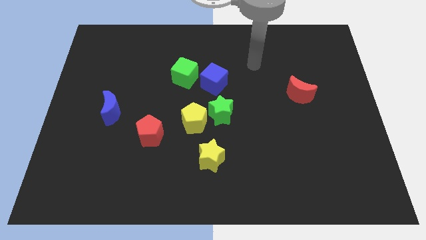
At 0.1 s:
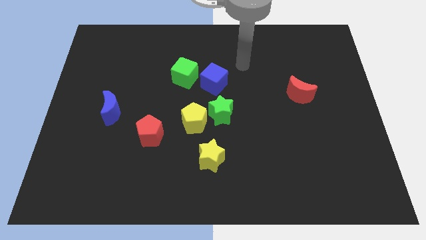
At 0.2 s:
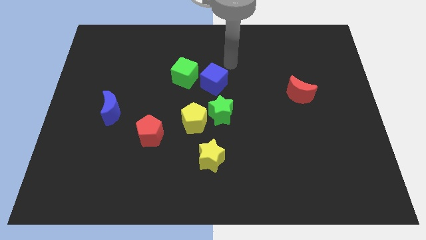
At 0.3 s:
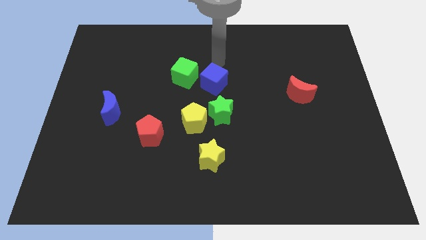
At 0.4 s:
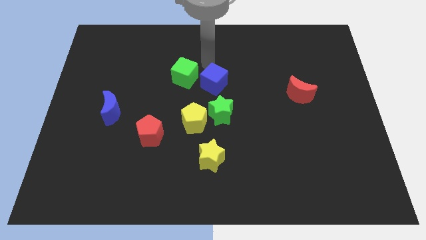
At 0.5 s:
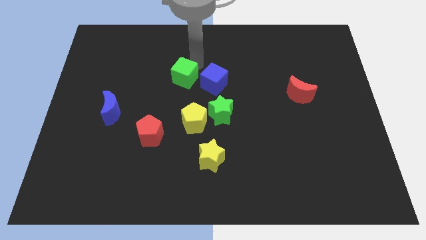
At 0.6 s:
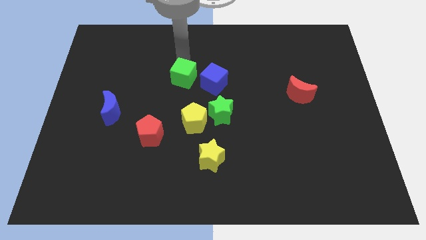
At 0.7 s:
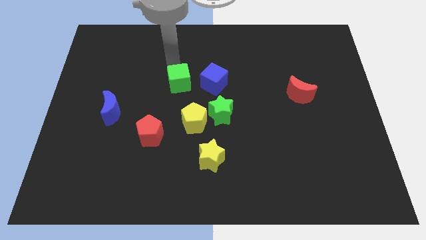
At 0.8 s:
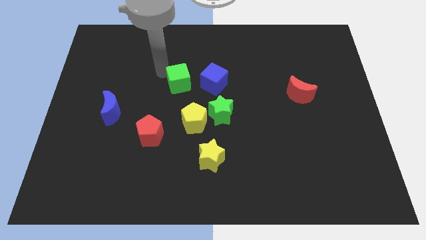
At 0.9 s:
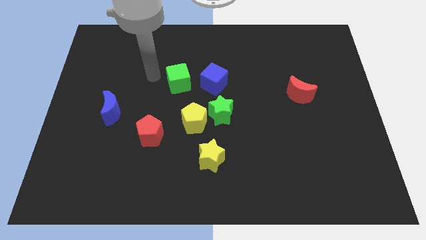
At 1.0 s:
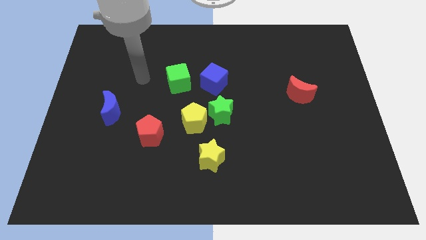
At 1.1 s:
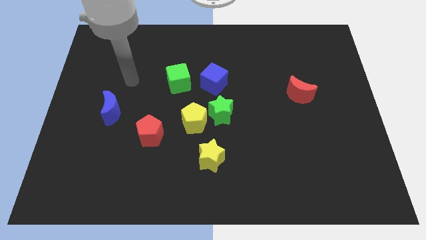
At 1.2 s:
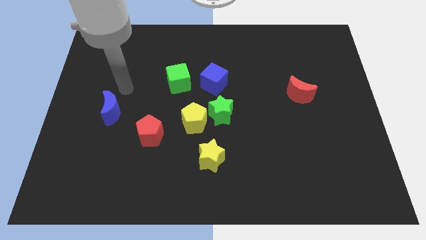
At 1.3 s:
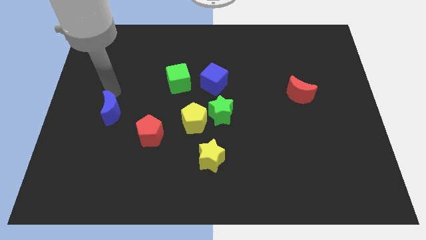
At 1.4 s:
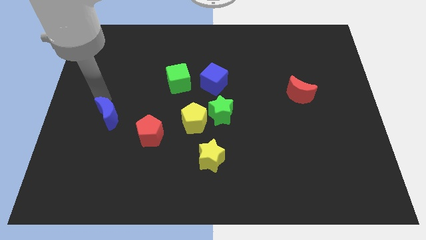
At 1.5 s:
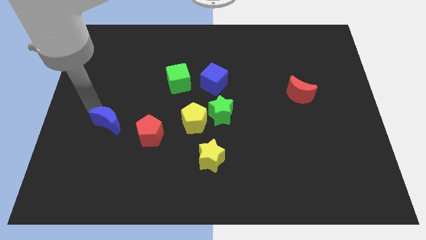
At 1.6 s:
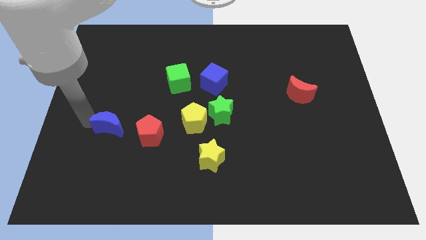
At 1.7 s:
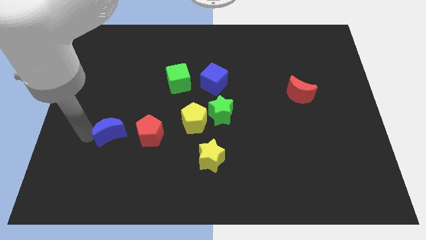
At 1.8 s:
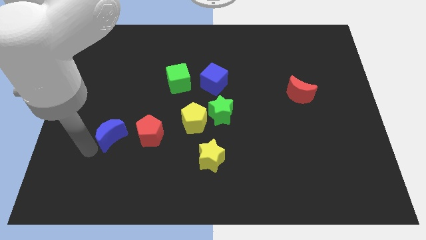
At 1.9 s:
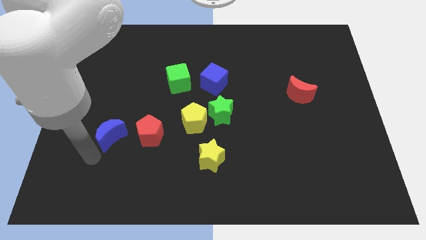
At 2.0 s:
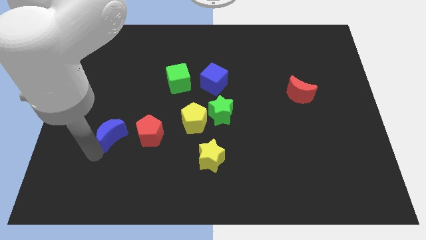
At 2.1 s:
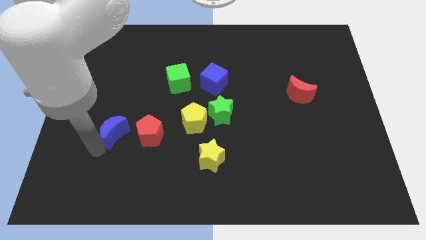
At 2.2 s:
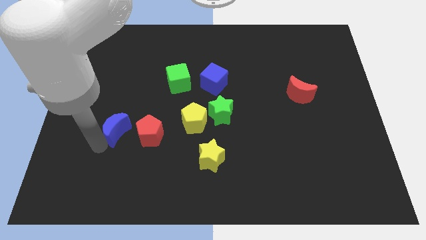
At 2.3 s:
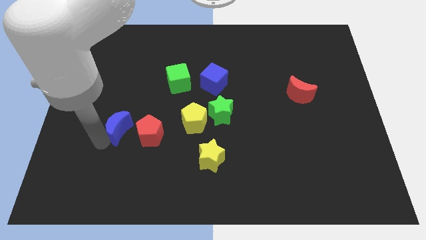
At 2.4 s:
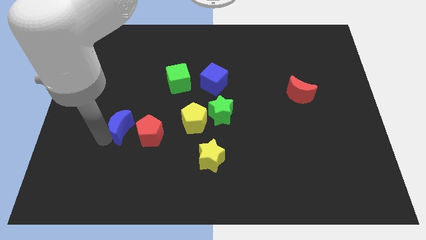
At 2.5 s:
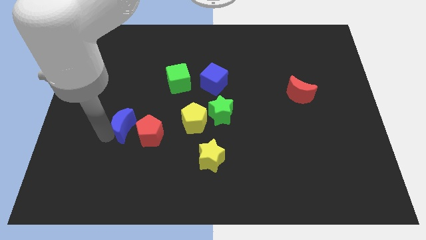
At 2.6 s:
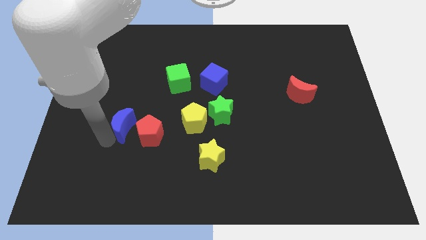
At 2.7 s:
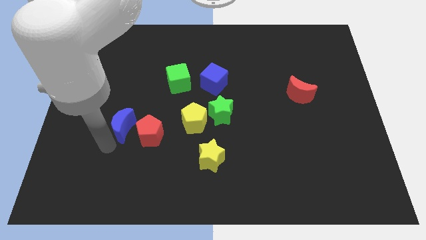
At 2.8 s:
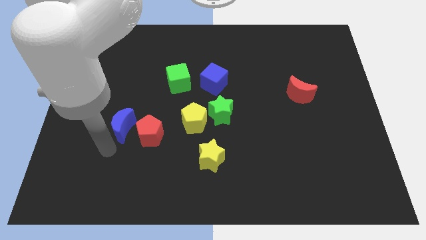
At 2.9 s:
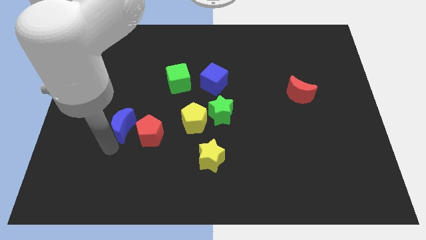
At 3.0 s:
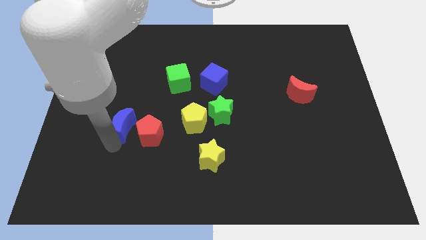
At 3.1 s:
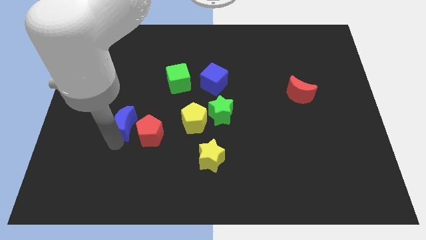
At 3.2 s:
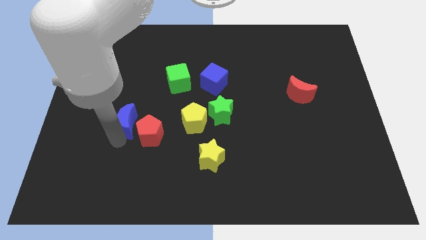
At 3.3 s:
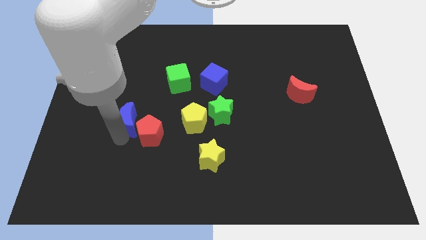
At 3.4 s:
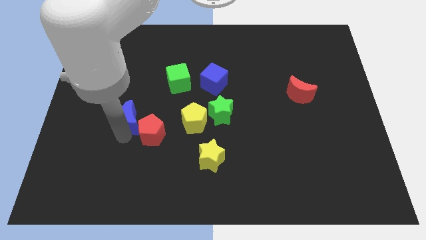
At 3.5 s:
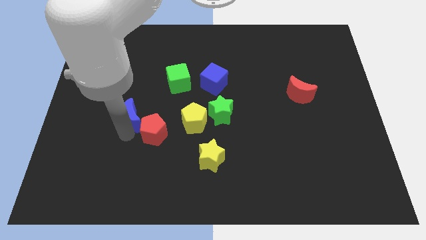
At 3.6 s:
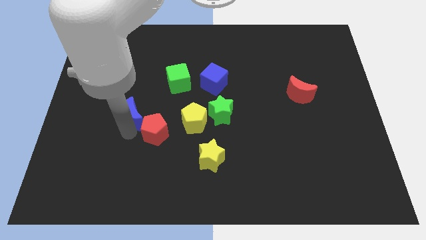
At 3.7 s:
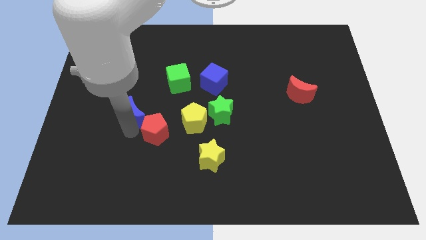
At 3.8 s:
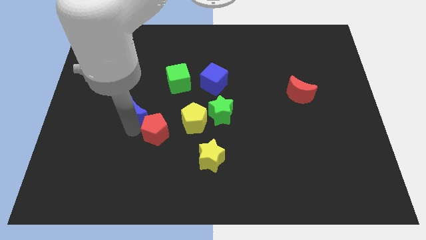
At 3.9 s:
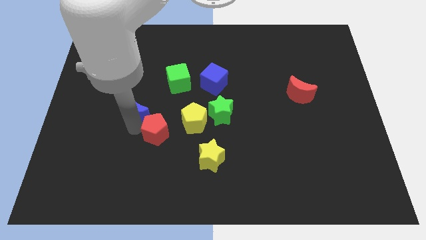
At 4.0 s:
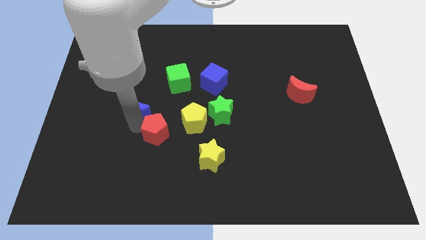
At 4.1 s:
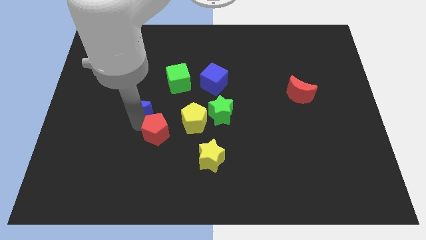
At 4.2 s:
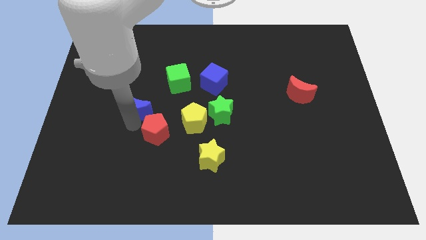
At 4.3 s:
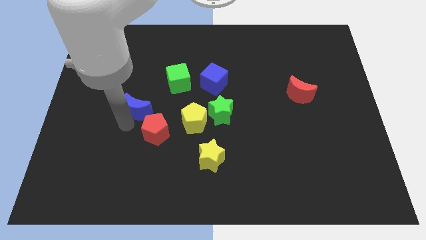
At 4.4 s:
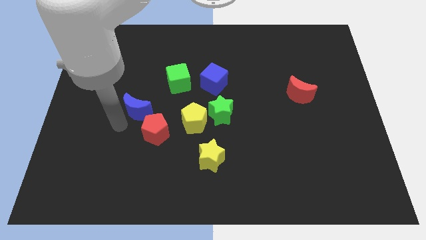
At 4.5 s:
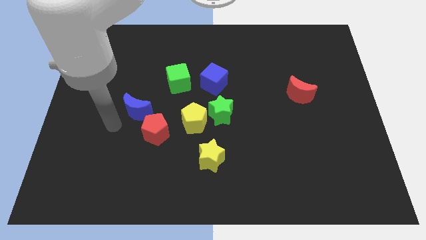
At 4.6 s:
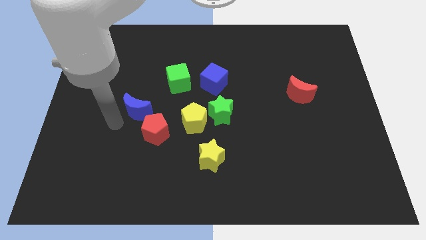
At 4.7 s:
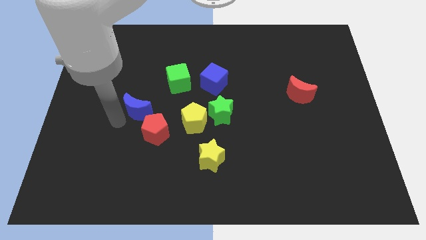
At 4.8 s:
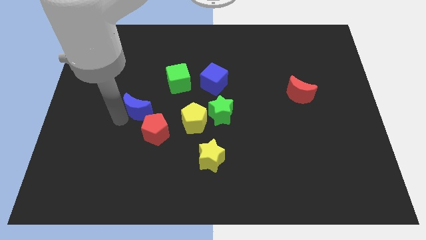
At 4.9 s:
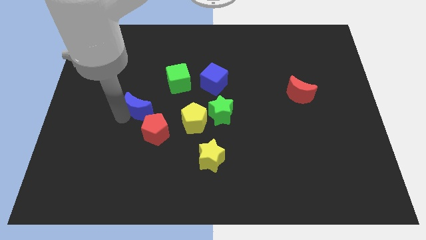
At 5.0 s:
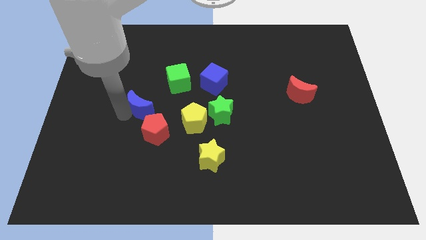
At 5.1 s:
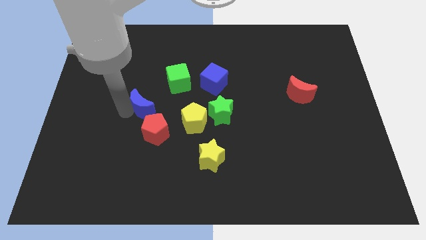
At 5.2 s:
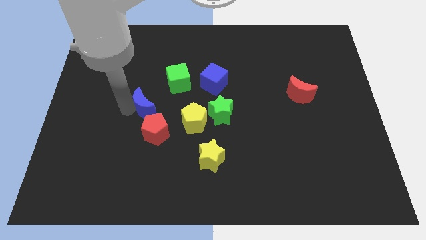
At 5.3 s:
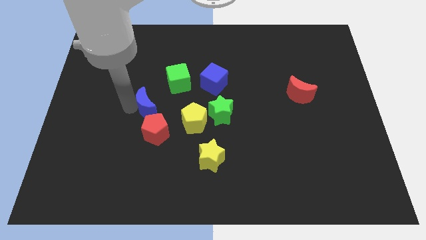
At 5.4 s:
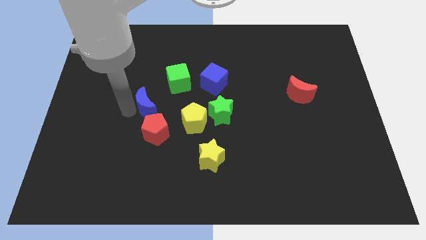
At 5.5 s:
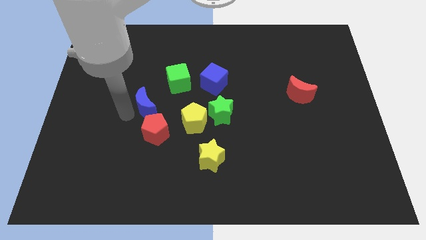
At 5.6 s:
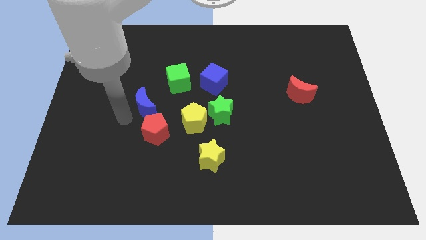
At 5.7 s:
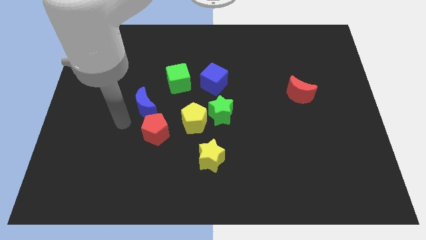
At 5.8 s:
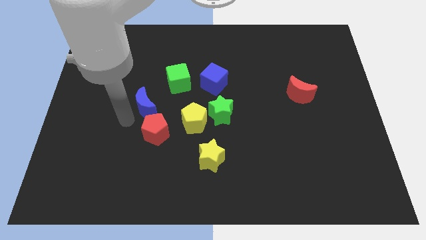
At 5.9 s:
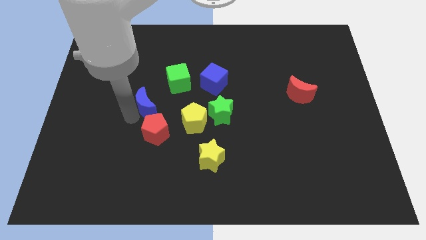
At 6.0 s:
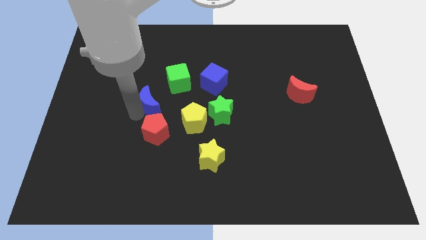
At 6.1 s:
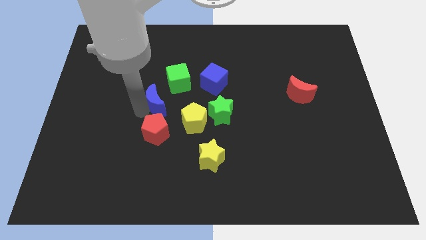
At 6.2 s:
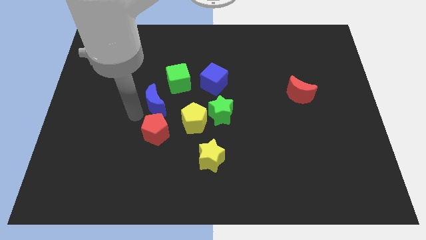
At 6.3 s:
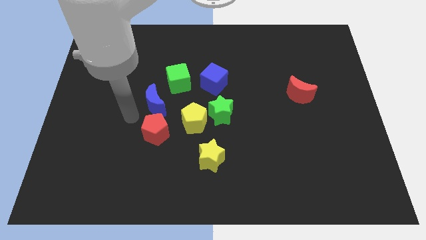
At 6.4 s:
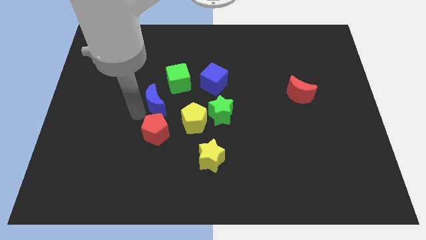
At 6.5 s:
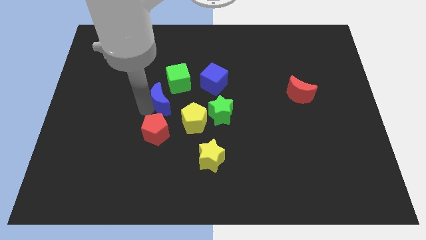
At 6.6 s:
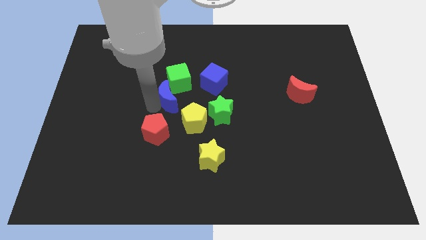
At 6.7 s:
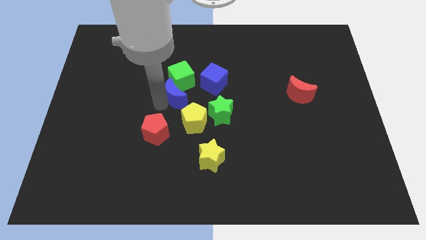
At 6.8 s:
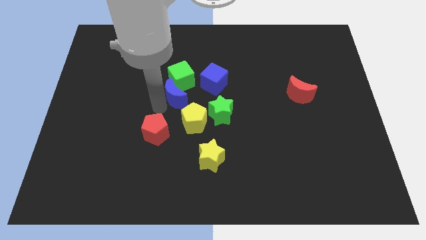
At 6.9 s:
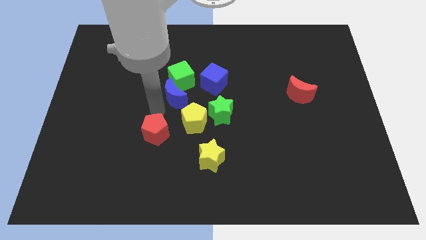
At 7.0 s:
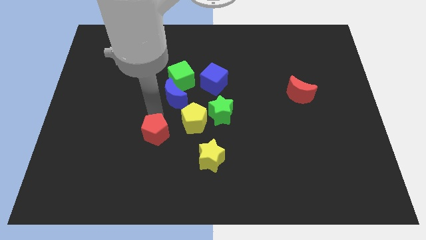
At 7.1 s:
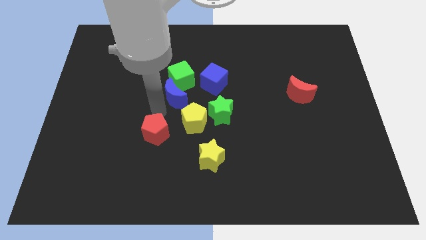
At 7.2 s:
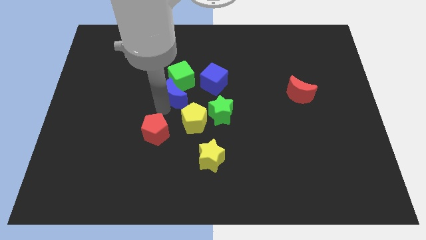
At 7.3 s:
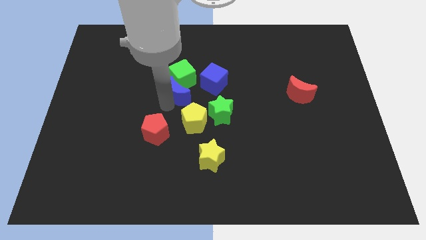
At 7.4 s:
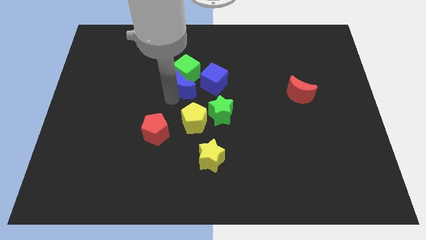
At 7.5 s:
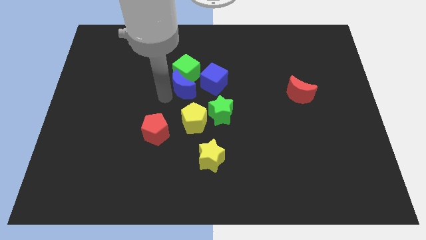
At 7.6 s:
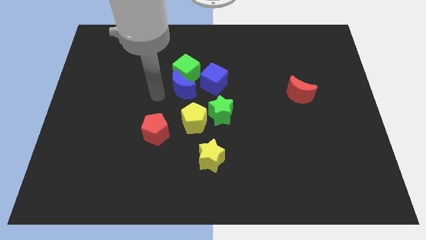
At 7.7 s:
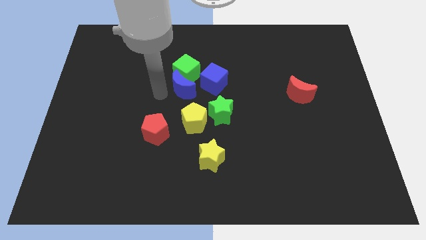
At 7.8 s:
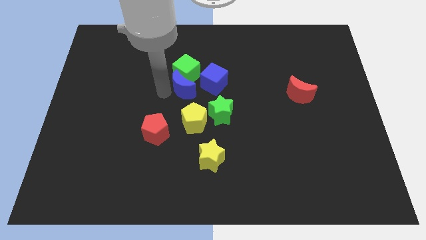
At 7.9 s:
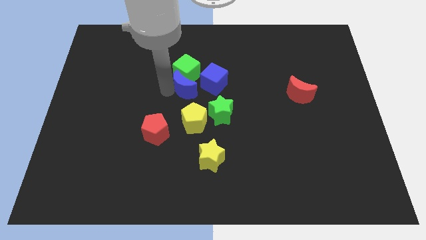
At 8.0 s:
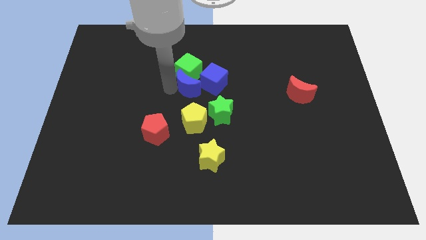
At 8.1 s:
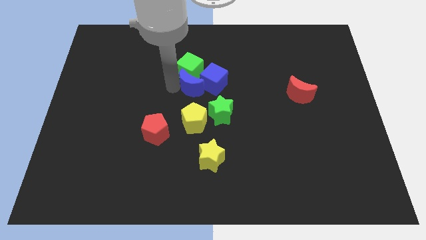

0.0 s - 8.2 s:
put the blue moon towards the blue cube
